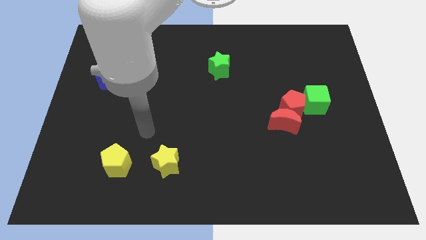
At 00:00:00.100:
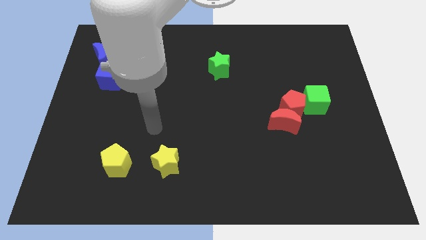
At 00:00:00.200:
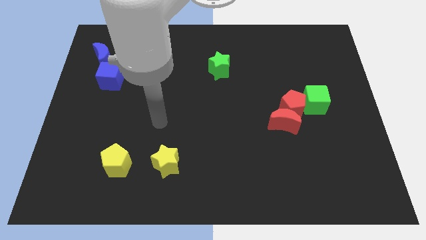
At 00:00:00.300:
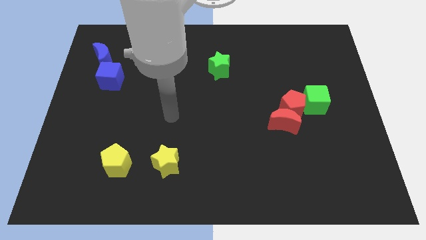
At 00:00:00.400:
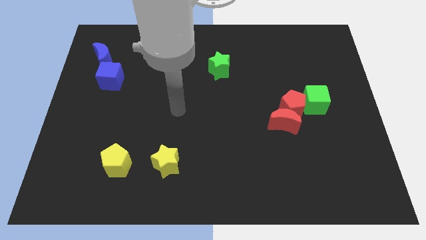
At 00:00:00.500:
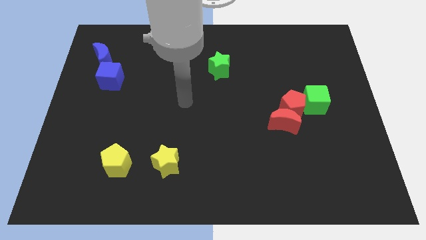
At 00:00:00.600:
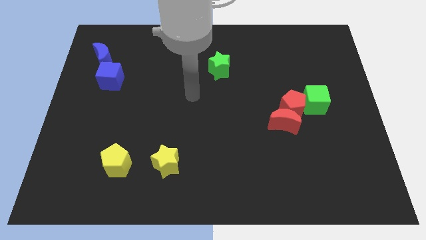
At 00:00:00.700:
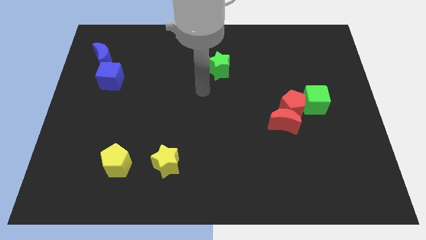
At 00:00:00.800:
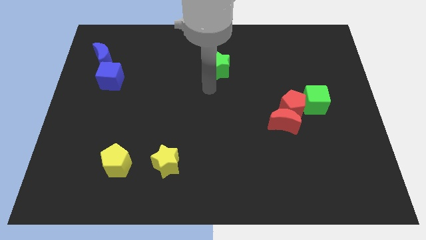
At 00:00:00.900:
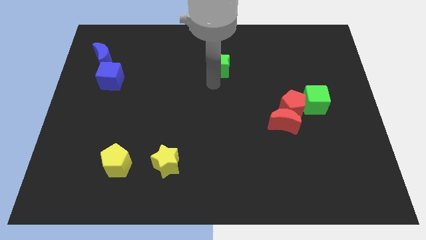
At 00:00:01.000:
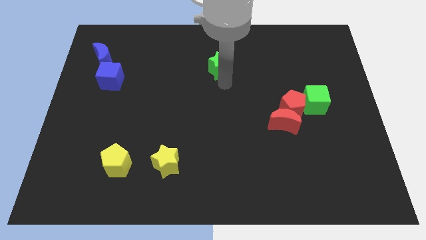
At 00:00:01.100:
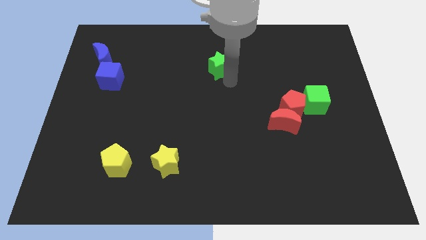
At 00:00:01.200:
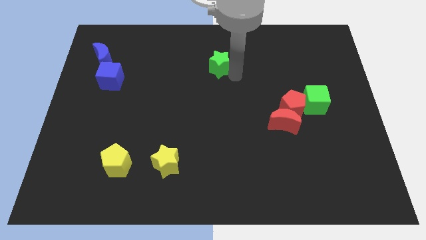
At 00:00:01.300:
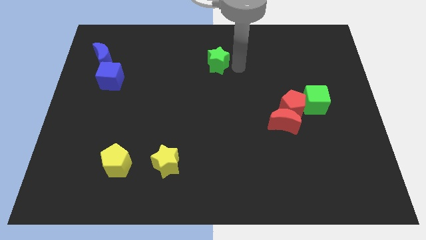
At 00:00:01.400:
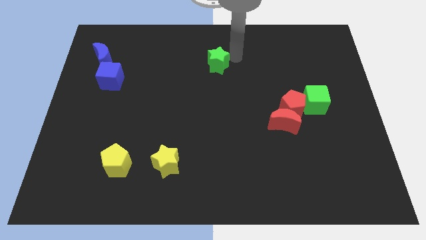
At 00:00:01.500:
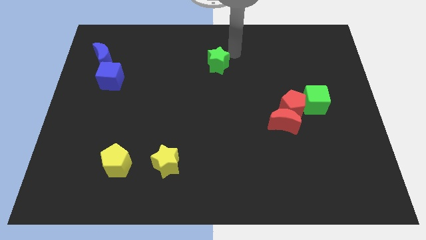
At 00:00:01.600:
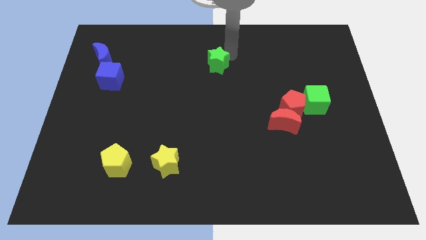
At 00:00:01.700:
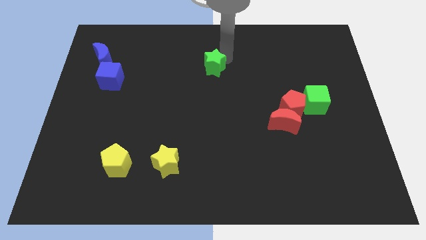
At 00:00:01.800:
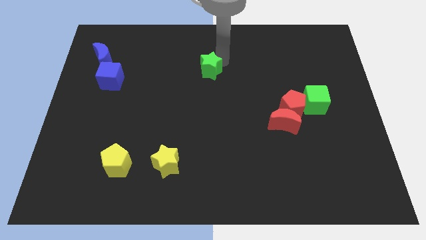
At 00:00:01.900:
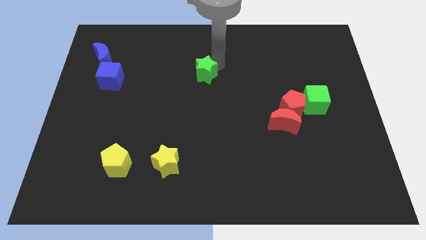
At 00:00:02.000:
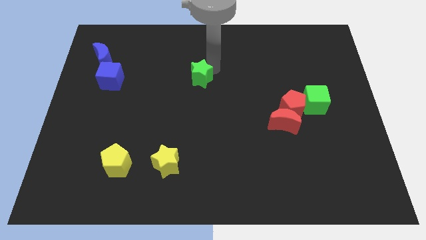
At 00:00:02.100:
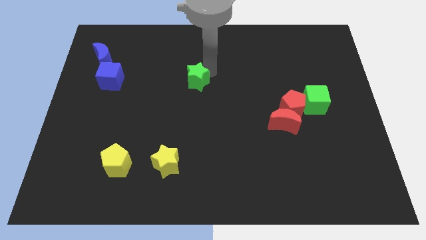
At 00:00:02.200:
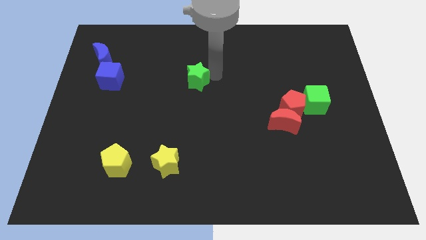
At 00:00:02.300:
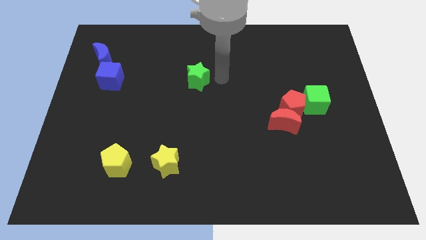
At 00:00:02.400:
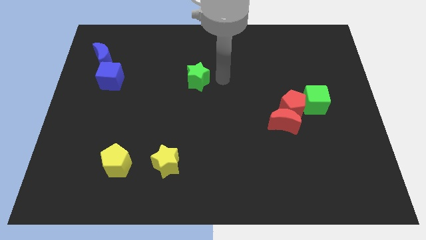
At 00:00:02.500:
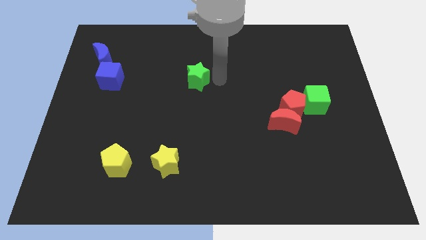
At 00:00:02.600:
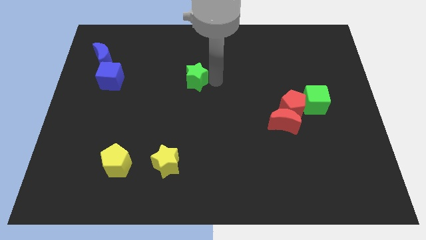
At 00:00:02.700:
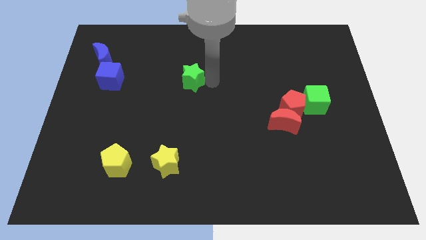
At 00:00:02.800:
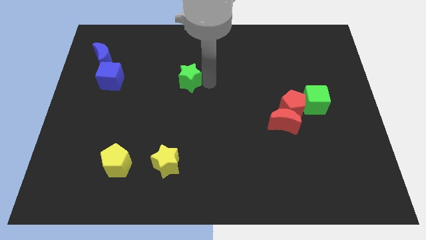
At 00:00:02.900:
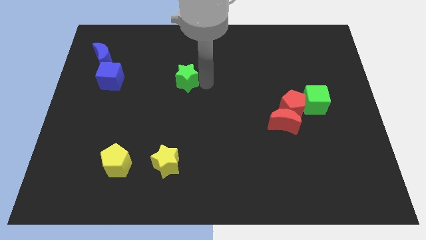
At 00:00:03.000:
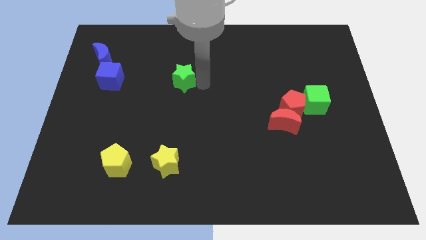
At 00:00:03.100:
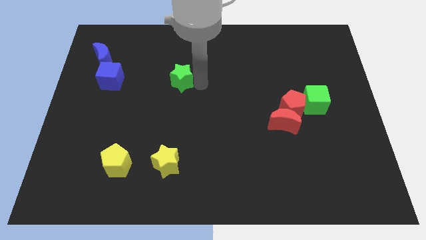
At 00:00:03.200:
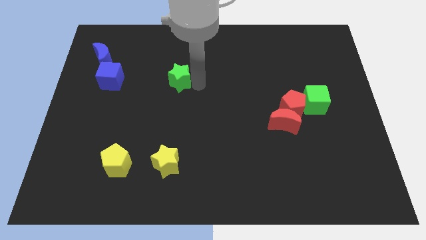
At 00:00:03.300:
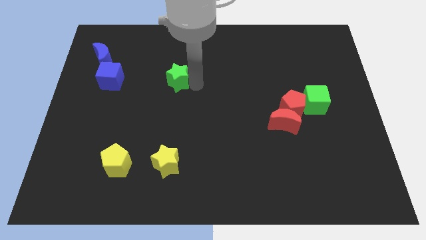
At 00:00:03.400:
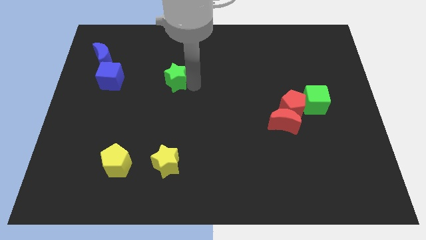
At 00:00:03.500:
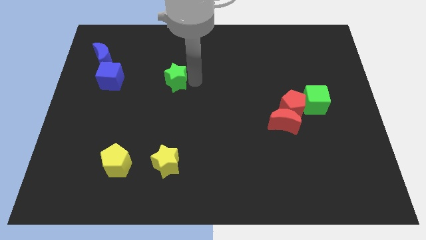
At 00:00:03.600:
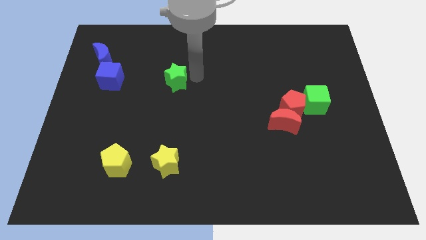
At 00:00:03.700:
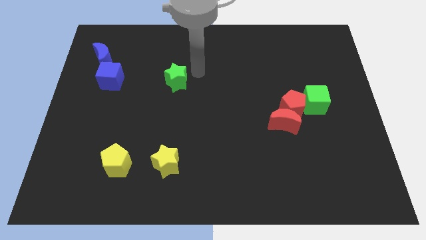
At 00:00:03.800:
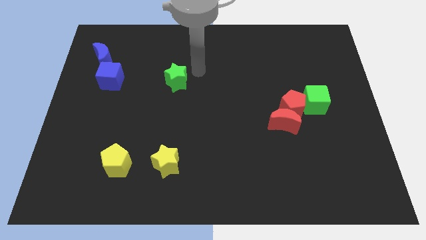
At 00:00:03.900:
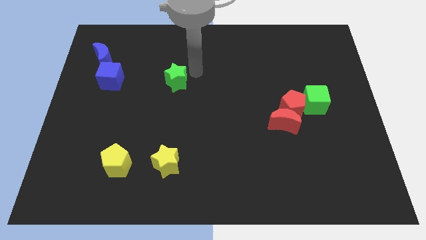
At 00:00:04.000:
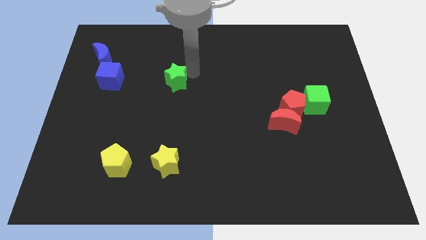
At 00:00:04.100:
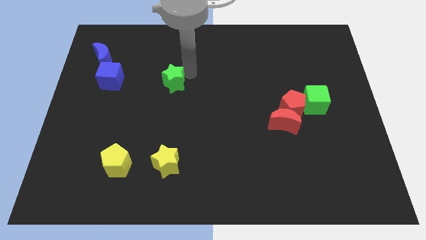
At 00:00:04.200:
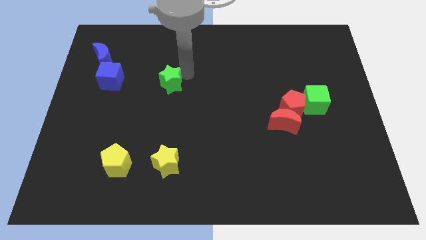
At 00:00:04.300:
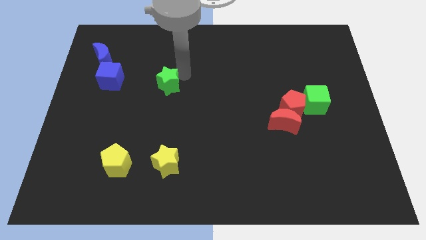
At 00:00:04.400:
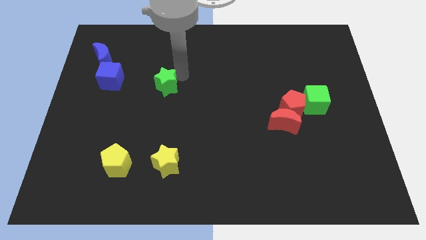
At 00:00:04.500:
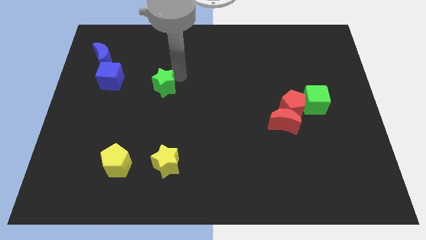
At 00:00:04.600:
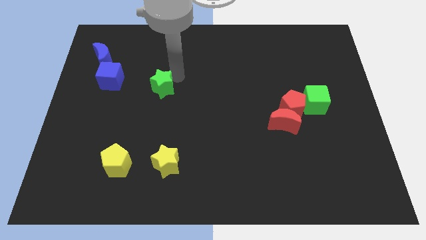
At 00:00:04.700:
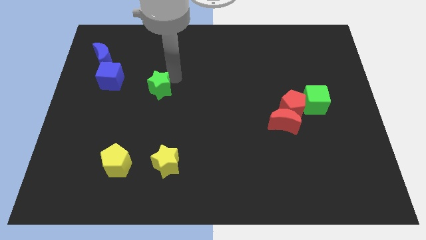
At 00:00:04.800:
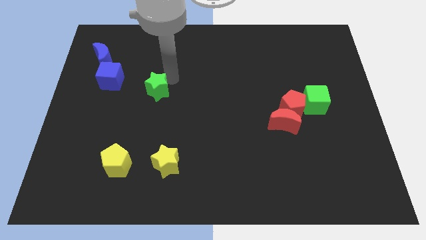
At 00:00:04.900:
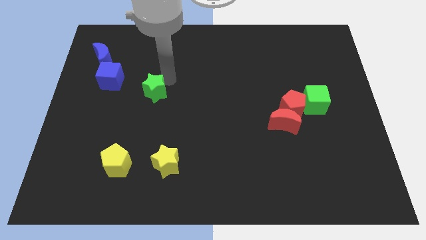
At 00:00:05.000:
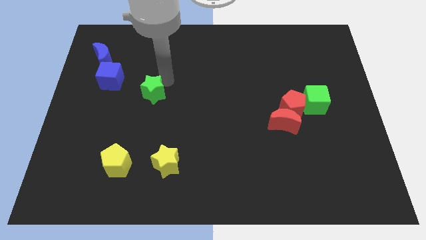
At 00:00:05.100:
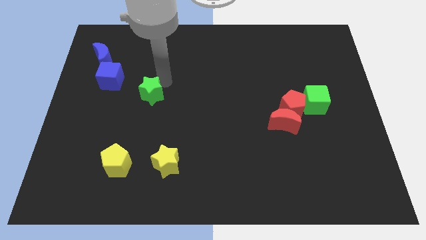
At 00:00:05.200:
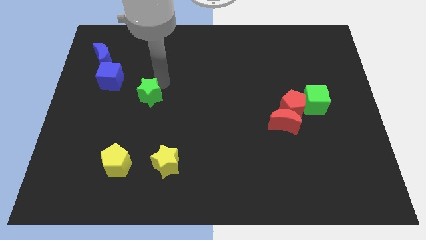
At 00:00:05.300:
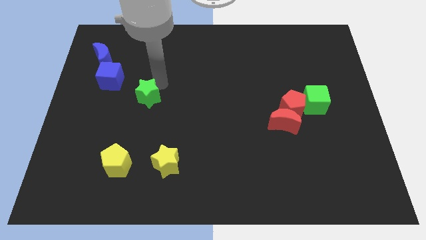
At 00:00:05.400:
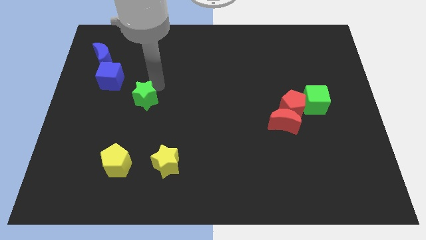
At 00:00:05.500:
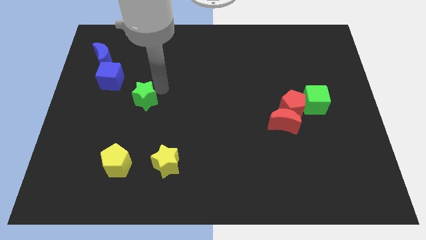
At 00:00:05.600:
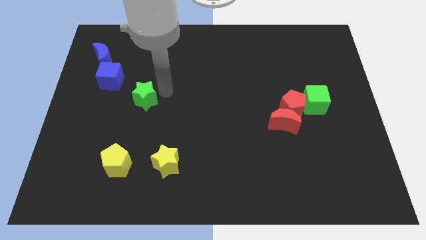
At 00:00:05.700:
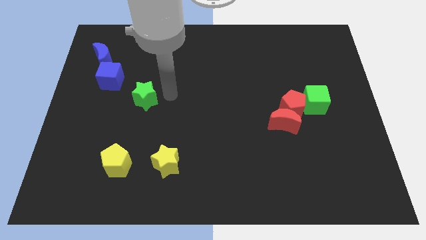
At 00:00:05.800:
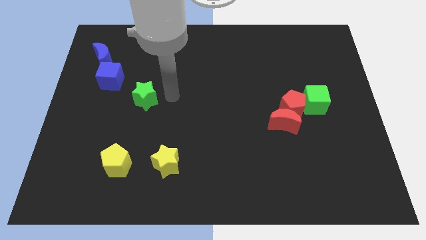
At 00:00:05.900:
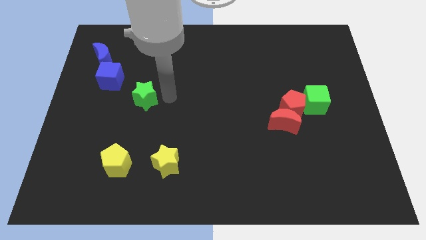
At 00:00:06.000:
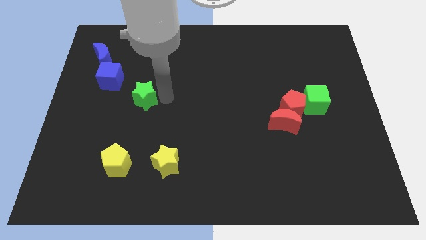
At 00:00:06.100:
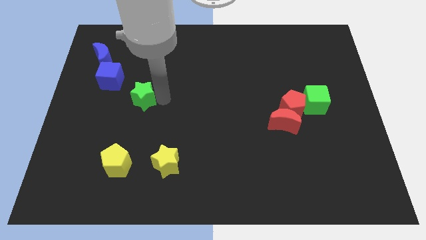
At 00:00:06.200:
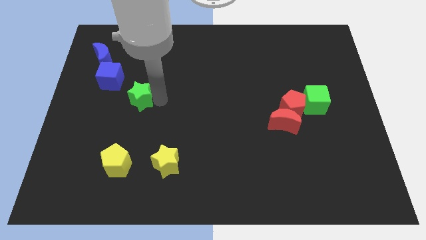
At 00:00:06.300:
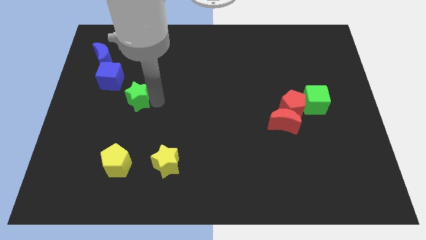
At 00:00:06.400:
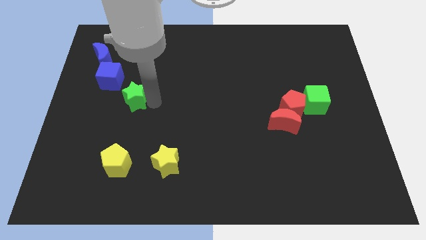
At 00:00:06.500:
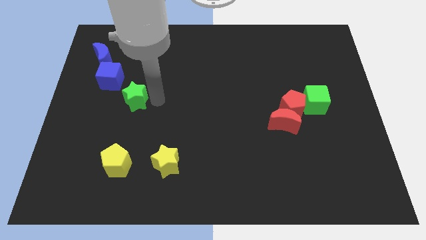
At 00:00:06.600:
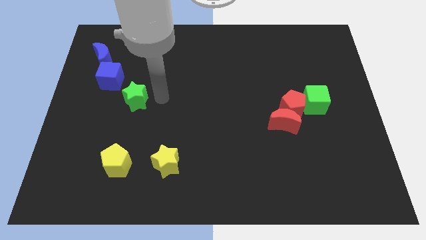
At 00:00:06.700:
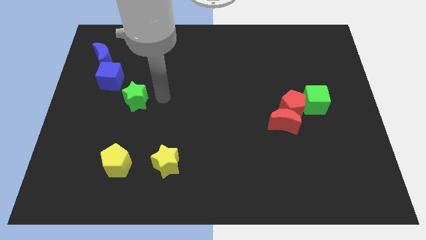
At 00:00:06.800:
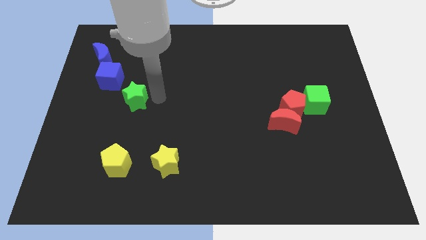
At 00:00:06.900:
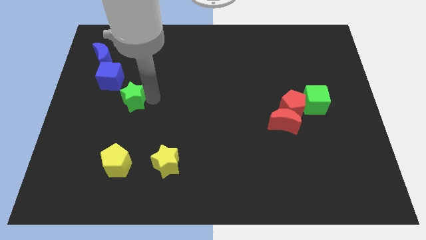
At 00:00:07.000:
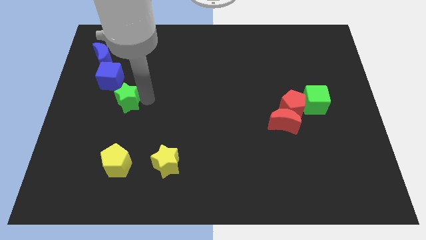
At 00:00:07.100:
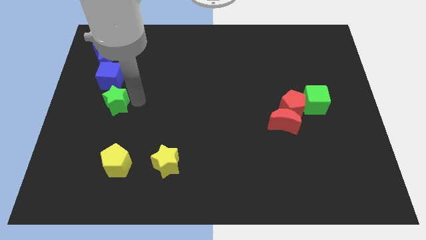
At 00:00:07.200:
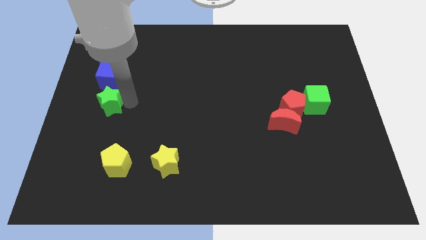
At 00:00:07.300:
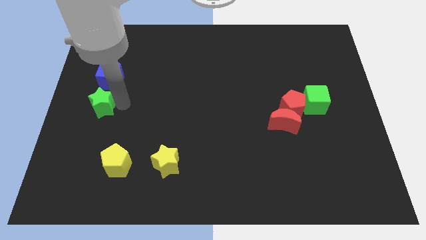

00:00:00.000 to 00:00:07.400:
move the green star to the left side
